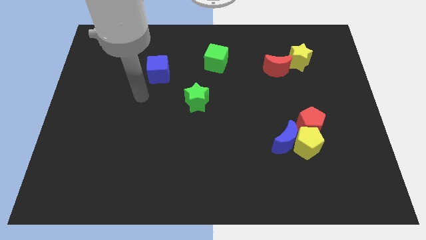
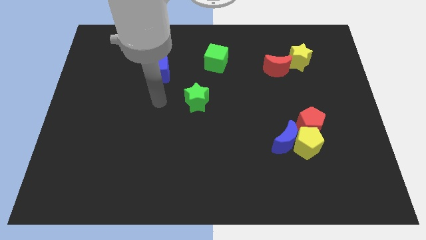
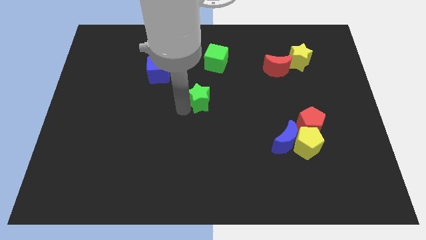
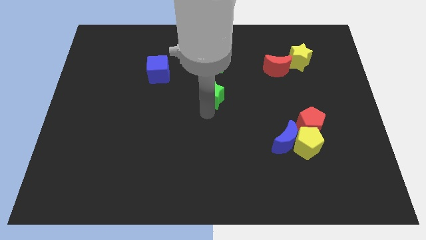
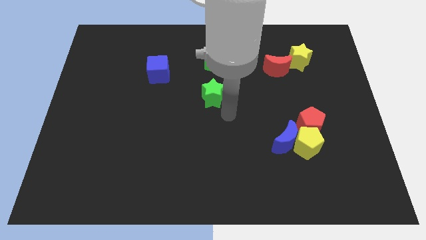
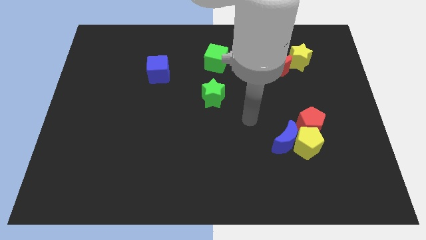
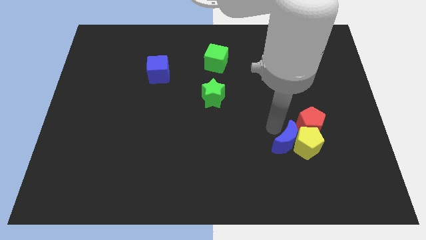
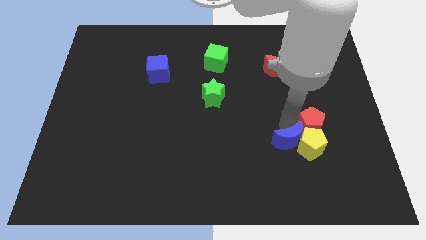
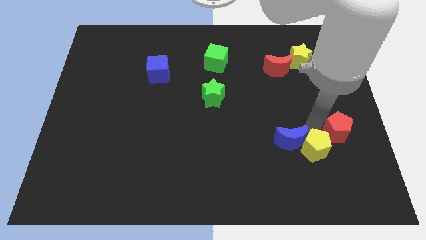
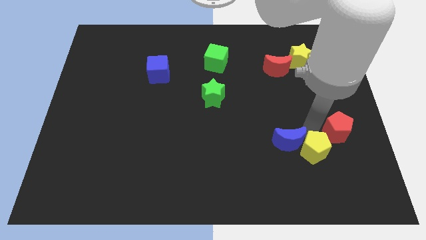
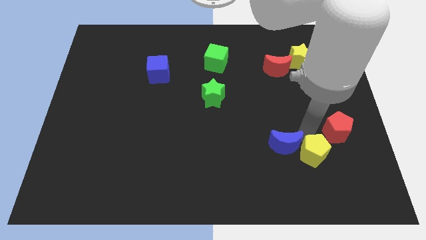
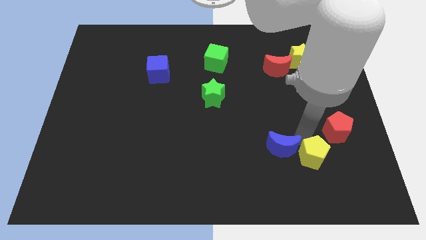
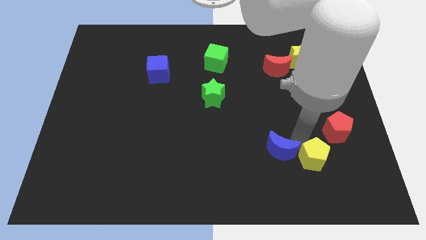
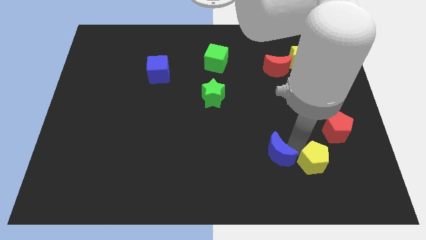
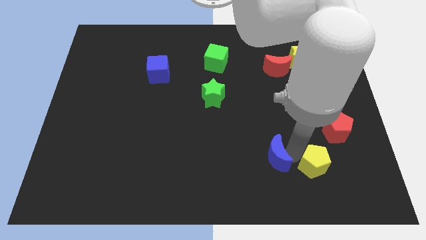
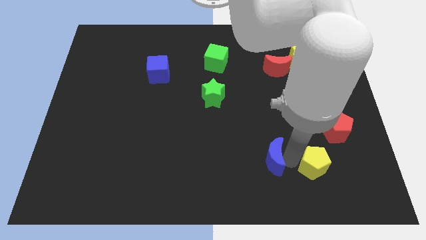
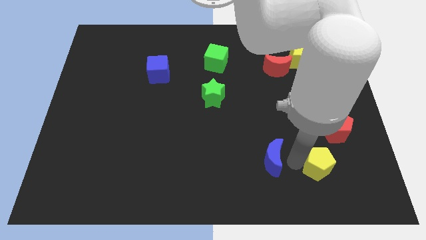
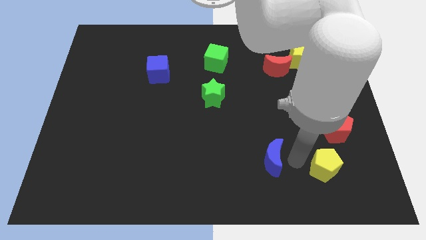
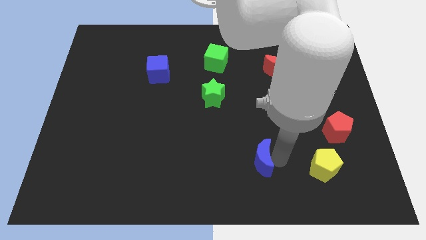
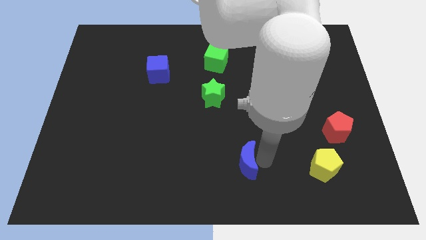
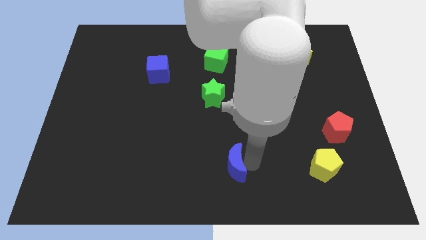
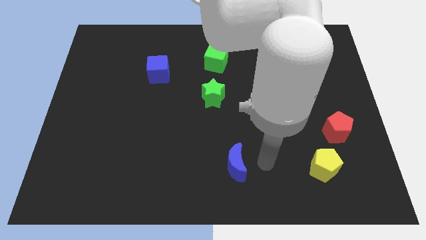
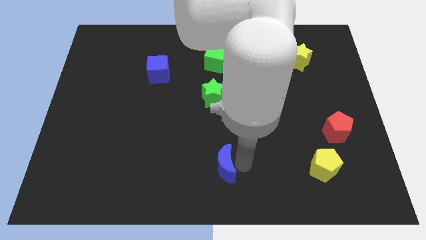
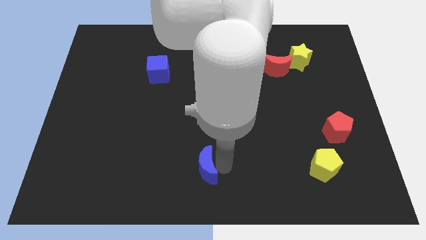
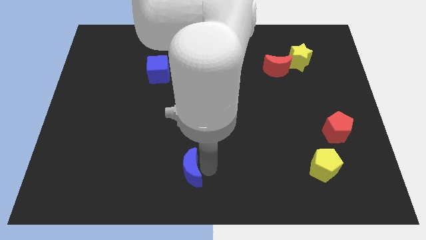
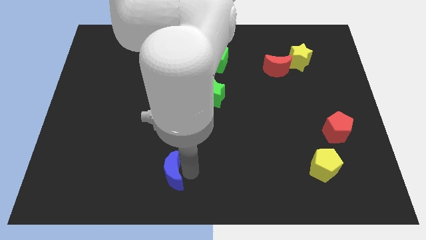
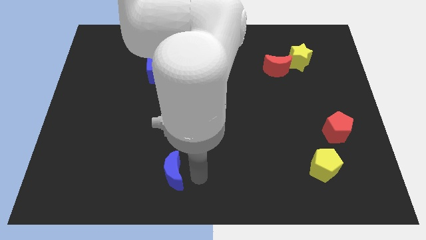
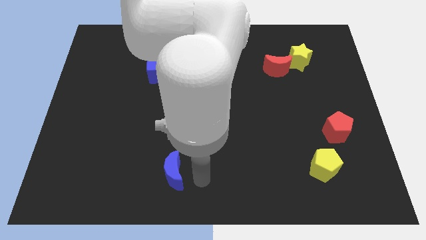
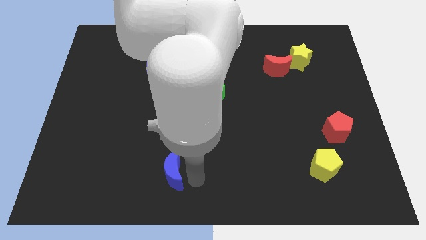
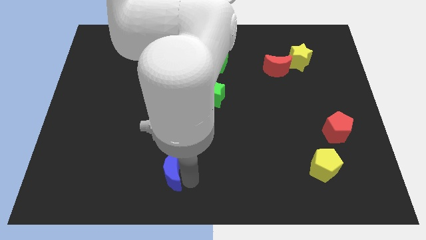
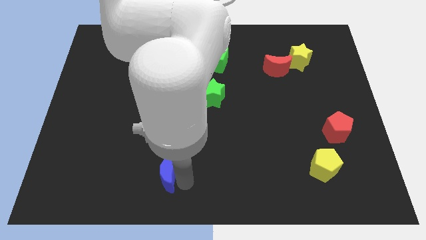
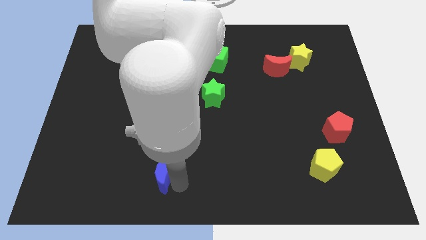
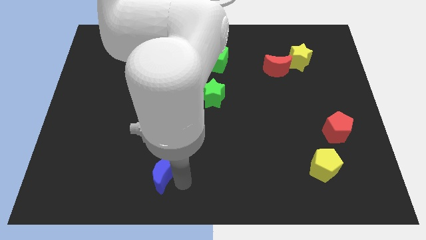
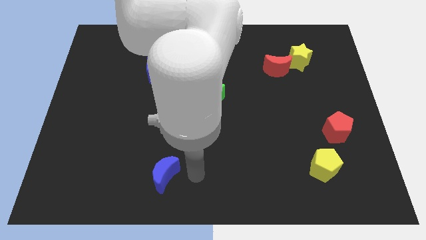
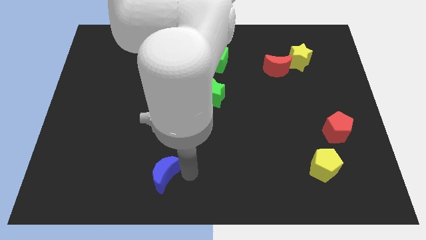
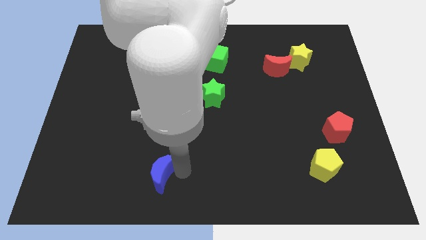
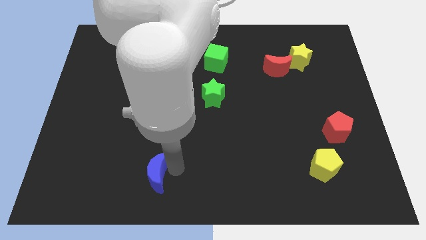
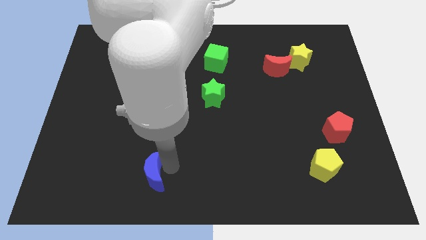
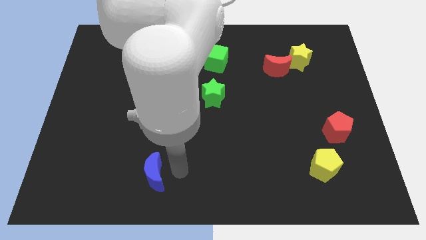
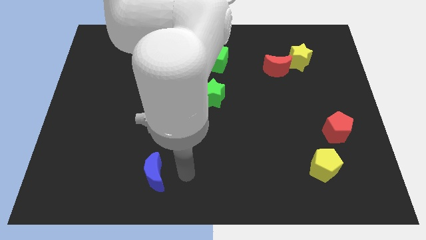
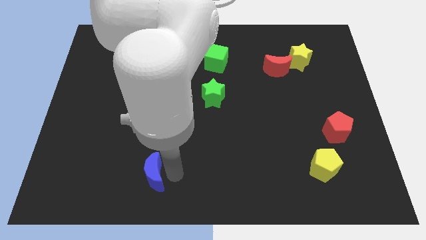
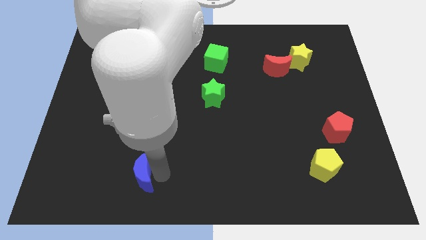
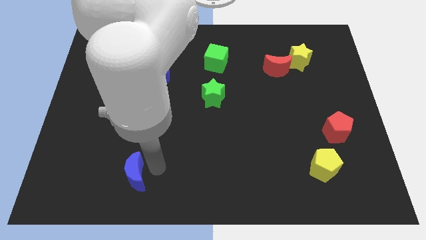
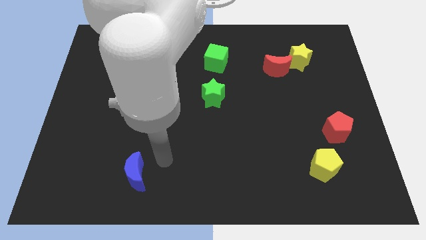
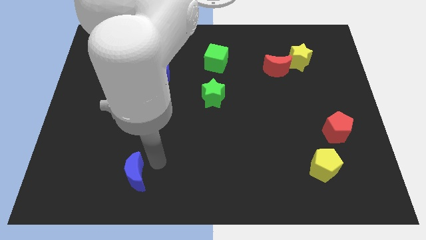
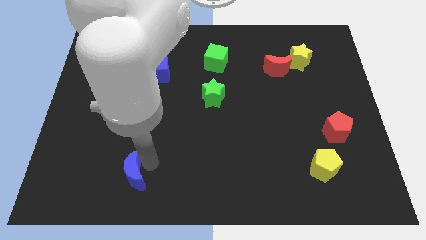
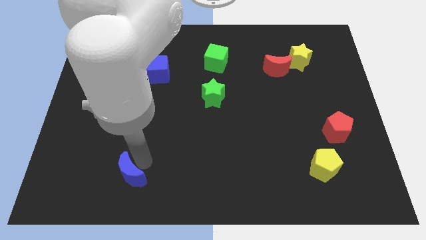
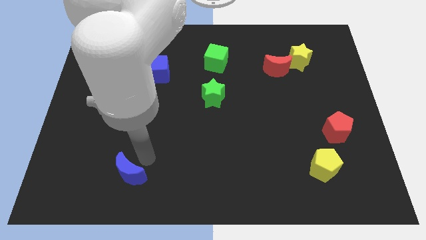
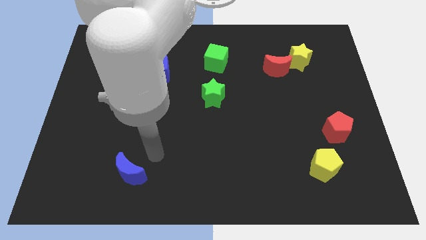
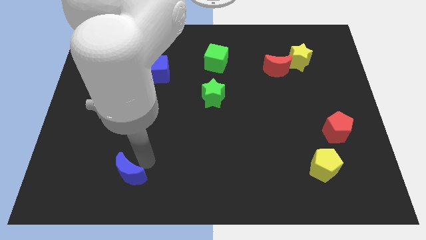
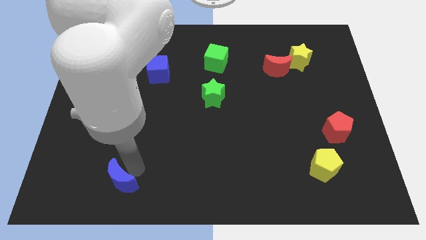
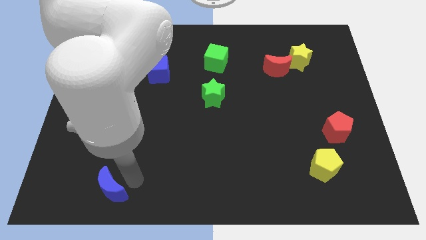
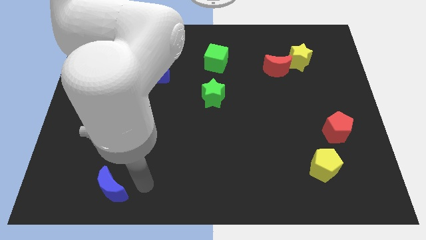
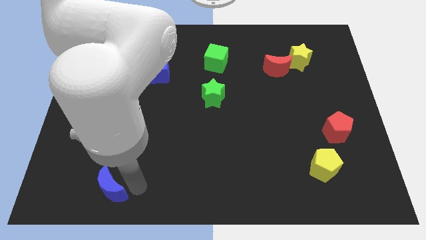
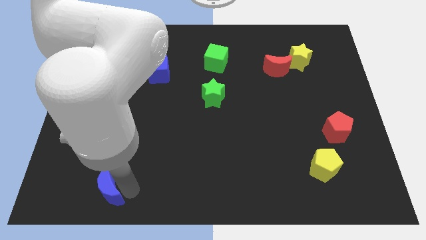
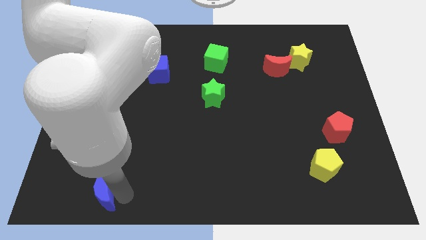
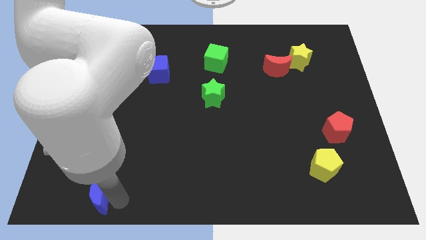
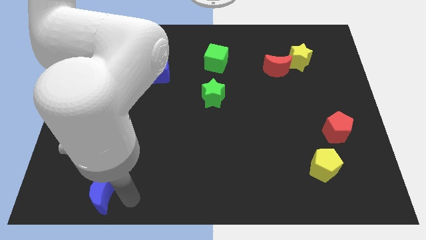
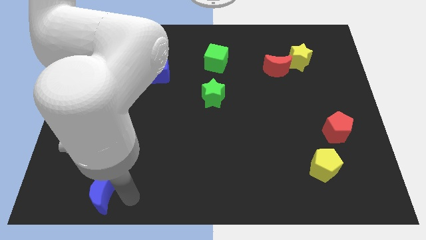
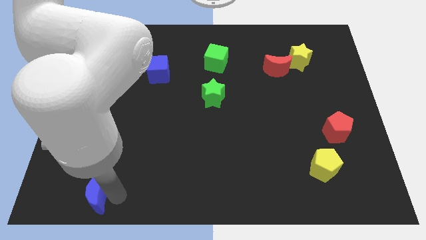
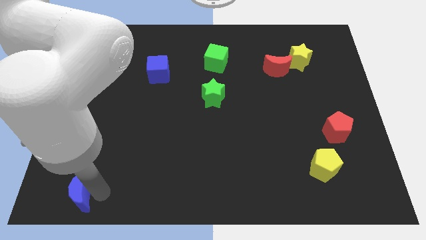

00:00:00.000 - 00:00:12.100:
slide the blue moon to the bottom left corner

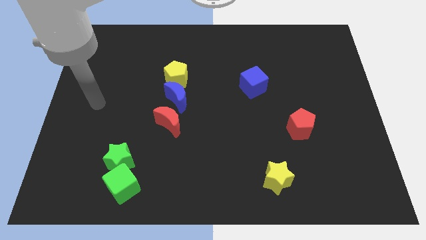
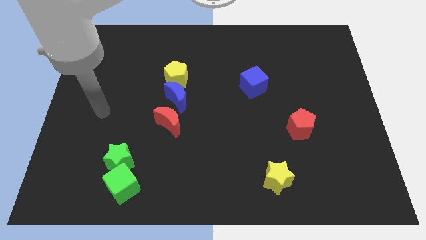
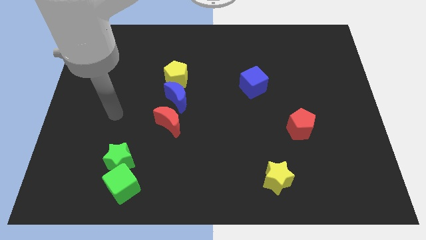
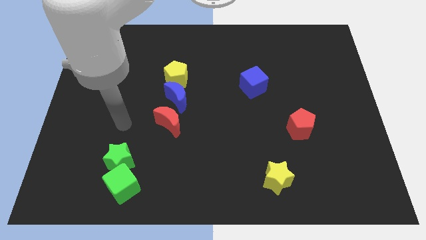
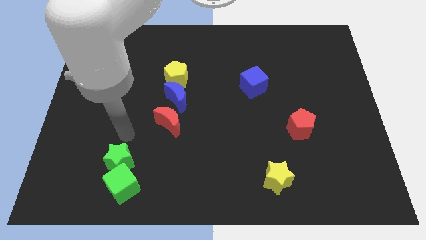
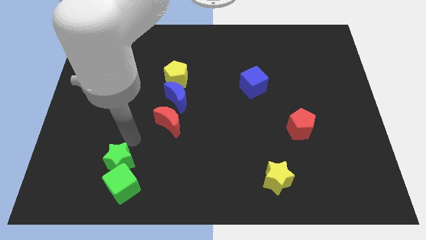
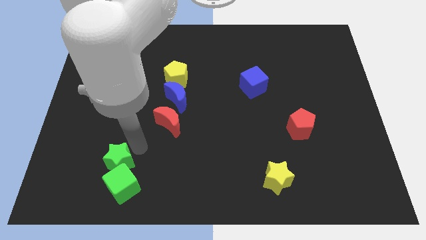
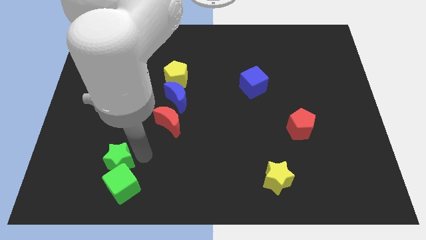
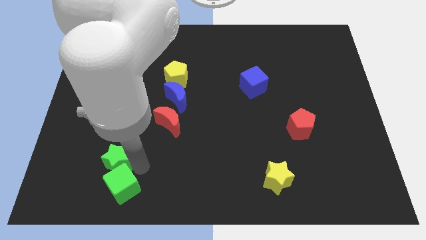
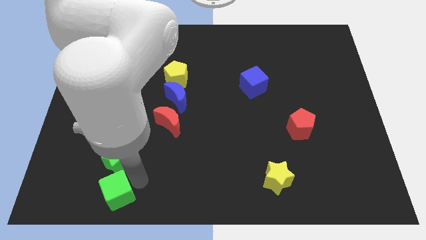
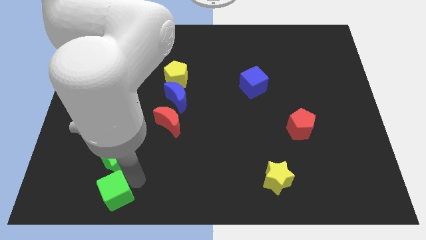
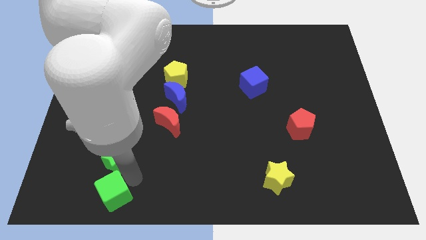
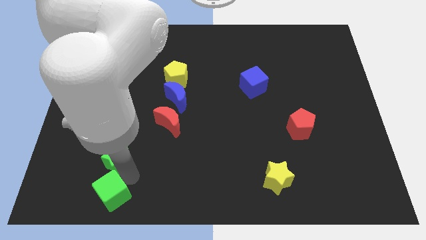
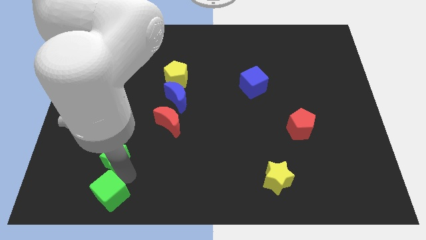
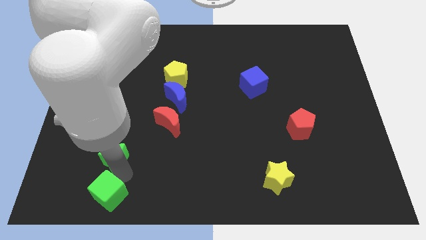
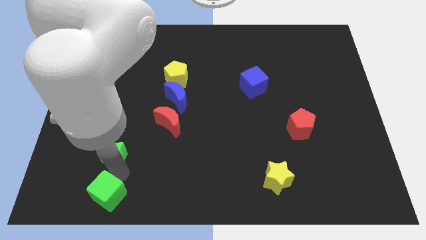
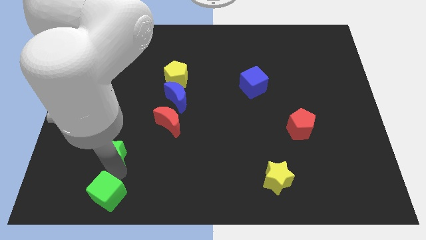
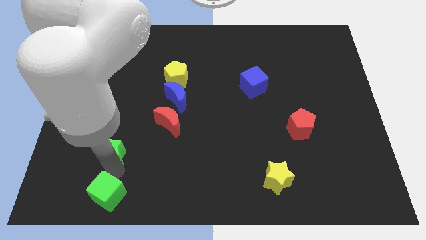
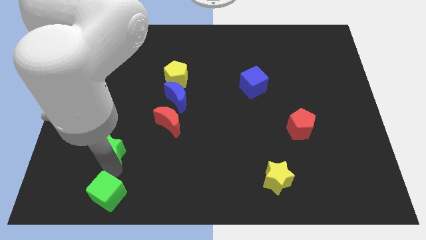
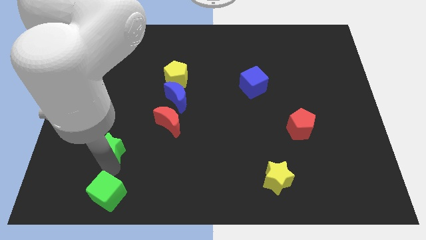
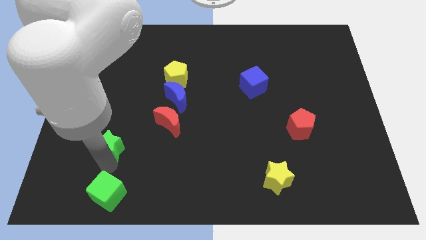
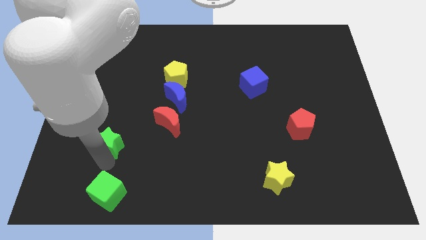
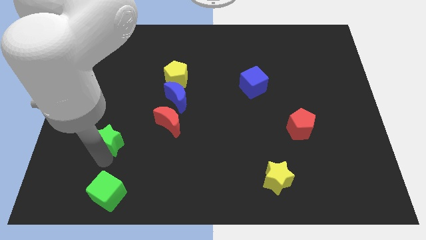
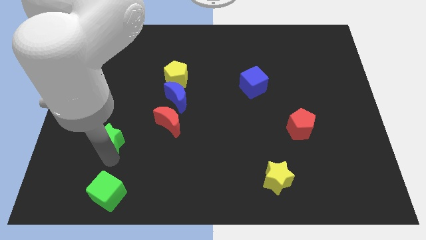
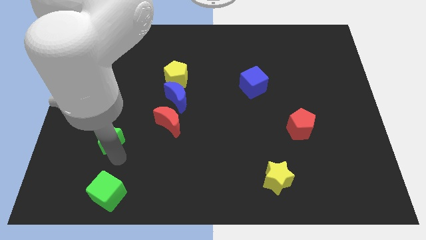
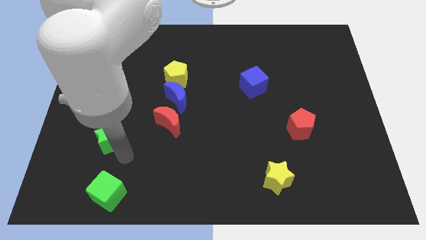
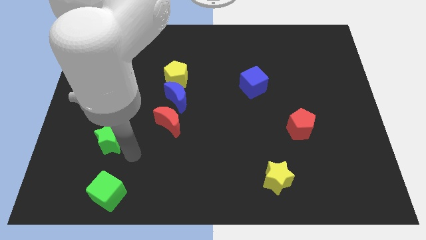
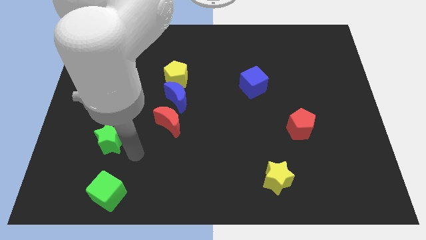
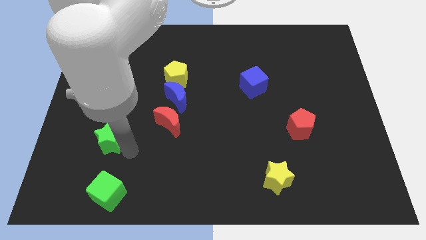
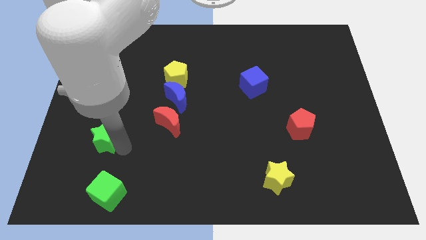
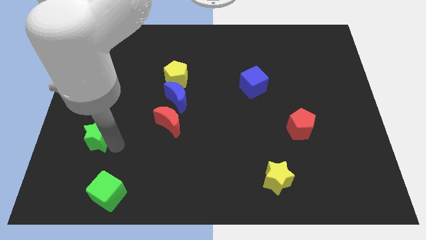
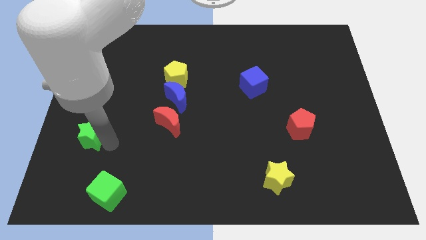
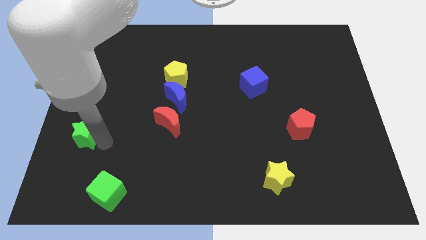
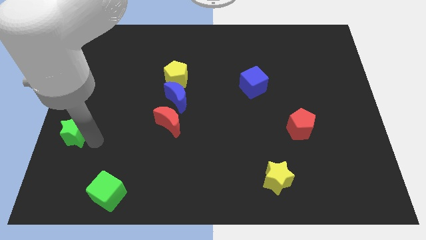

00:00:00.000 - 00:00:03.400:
slide the green star to the left side
